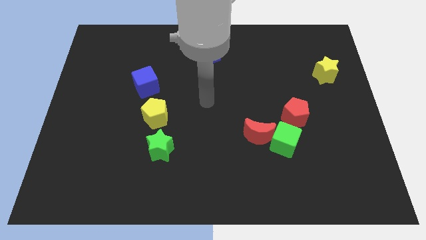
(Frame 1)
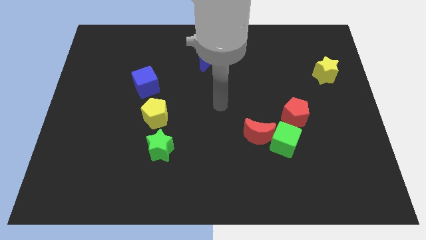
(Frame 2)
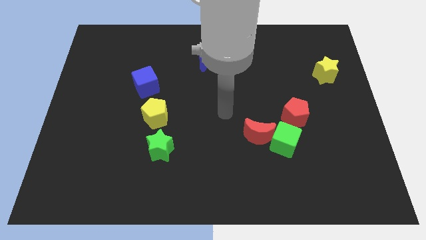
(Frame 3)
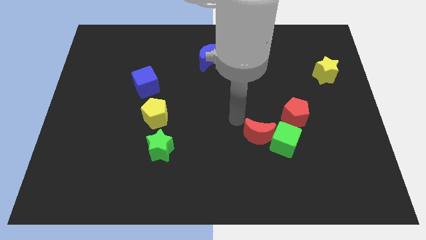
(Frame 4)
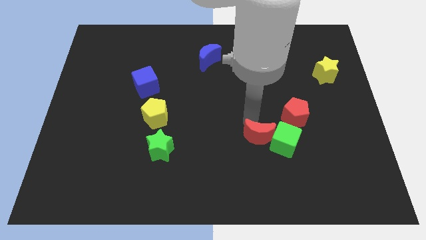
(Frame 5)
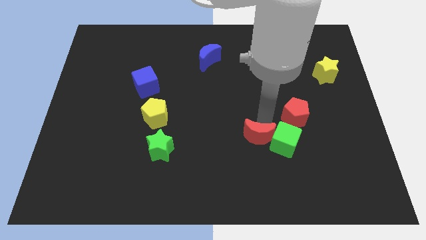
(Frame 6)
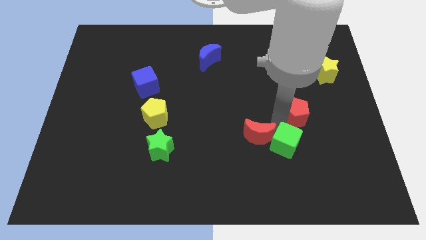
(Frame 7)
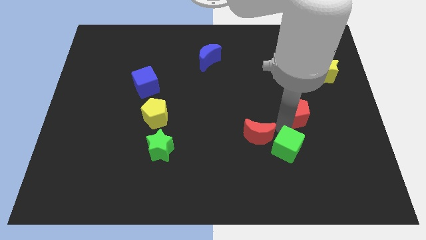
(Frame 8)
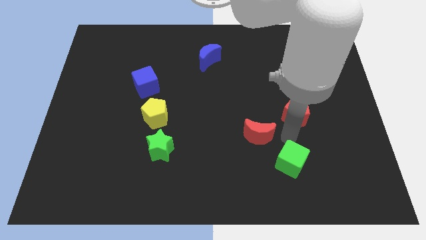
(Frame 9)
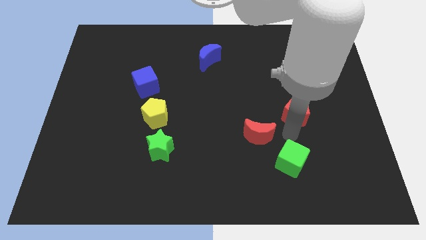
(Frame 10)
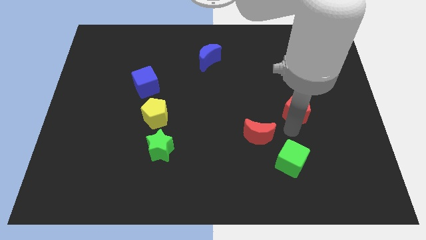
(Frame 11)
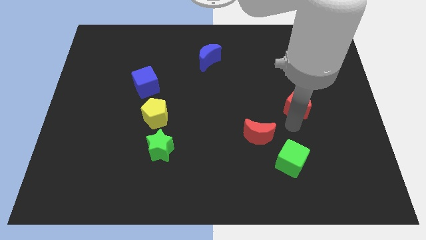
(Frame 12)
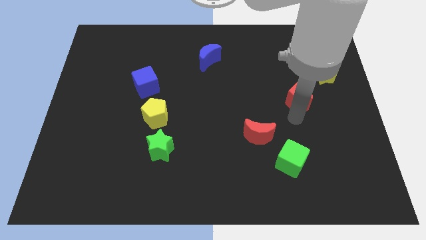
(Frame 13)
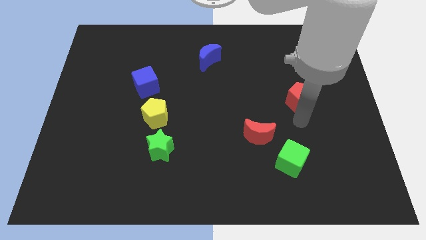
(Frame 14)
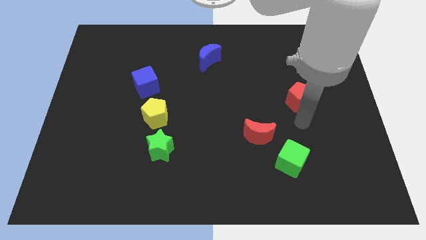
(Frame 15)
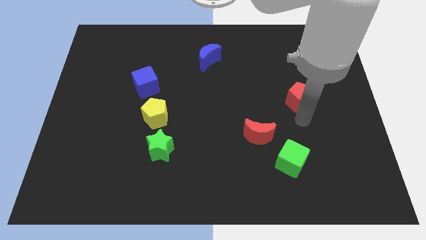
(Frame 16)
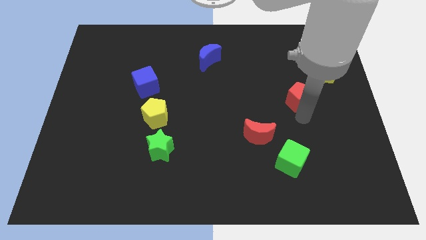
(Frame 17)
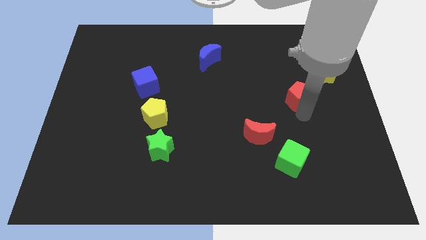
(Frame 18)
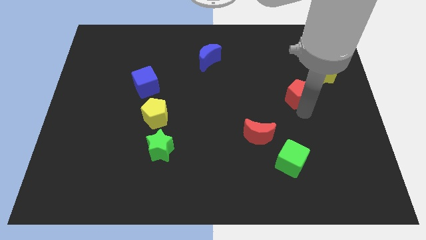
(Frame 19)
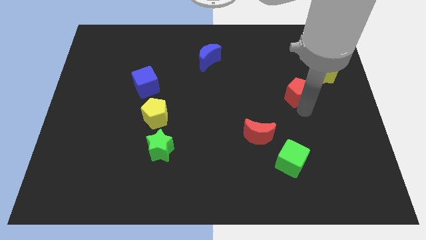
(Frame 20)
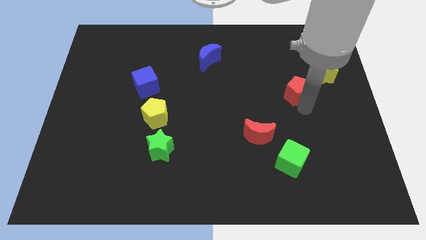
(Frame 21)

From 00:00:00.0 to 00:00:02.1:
push the red pentagon up somewhat

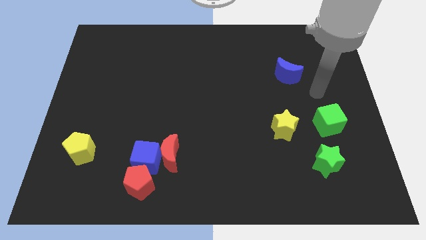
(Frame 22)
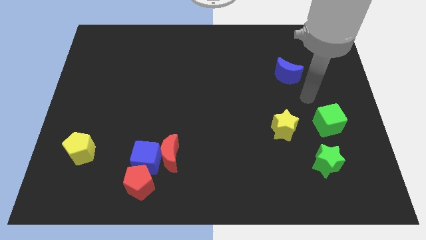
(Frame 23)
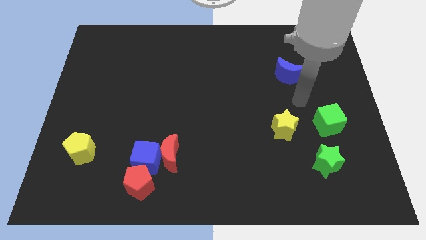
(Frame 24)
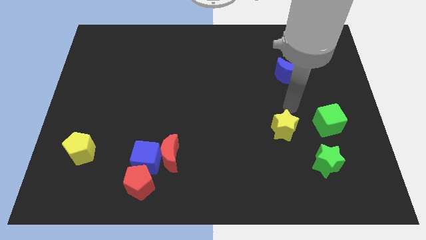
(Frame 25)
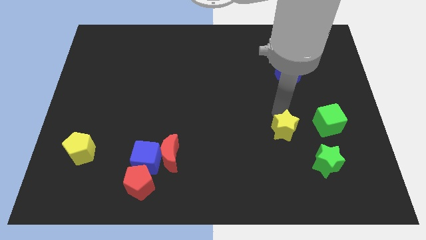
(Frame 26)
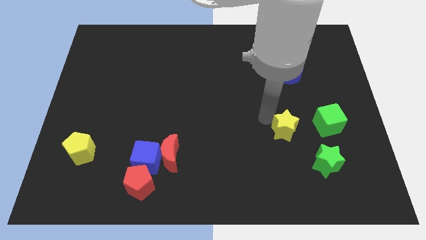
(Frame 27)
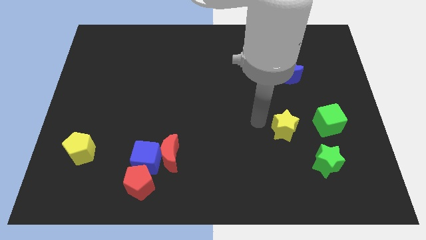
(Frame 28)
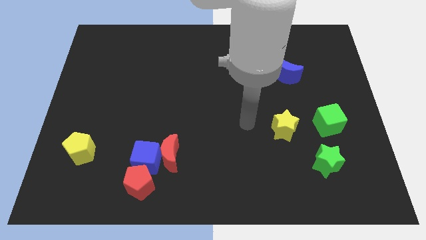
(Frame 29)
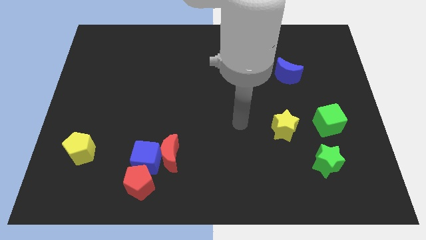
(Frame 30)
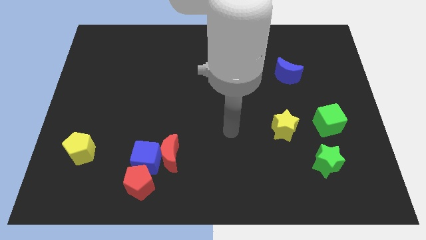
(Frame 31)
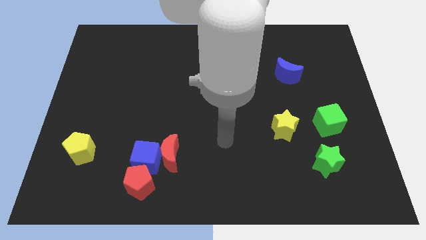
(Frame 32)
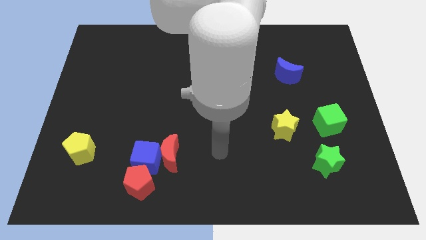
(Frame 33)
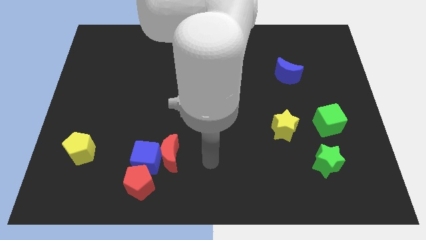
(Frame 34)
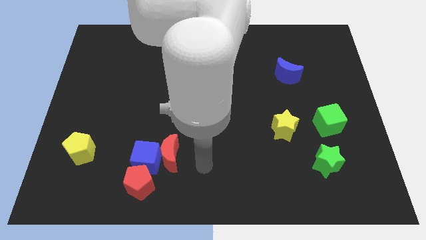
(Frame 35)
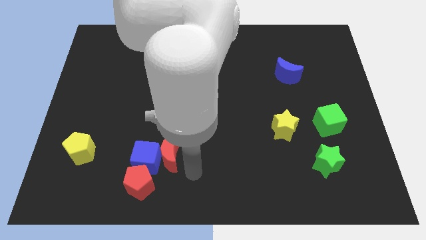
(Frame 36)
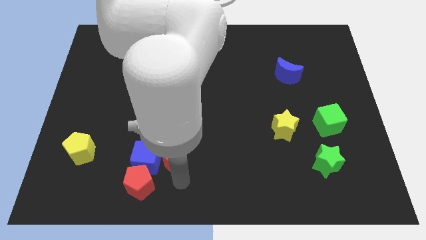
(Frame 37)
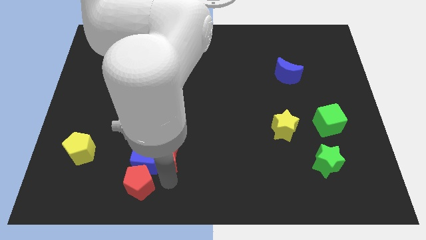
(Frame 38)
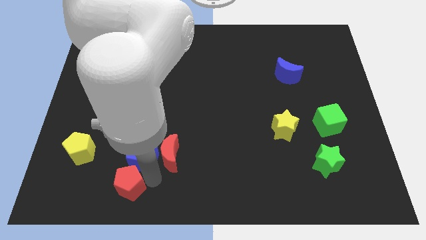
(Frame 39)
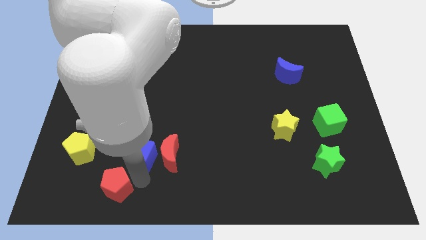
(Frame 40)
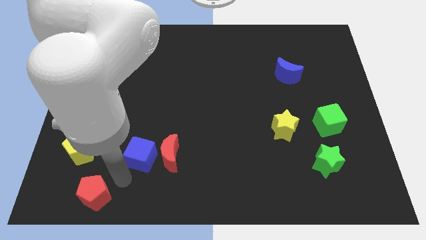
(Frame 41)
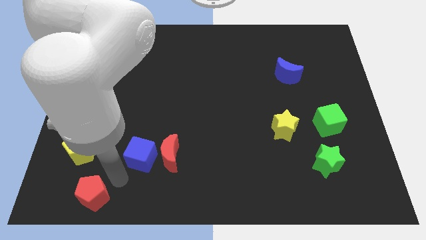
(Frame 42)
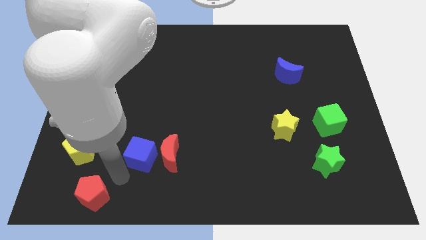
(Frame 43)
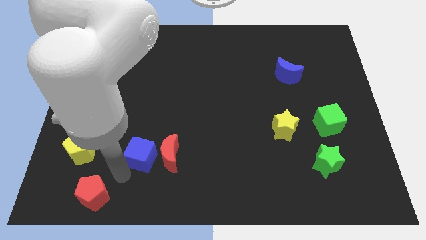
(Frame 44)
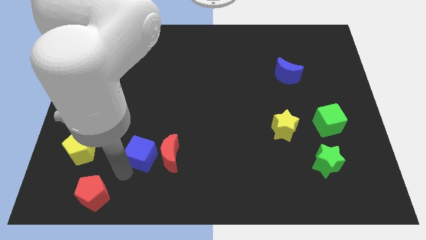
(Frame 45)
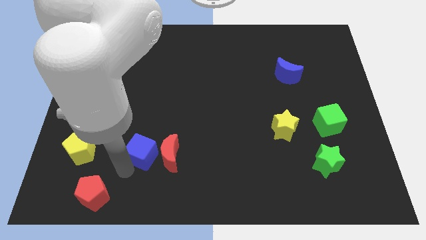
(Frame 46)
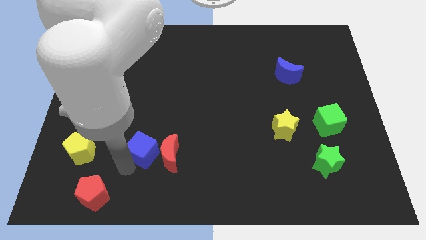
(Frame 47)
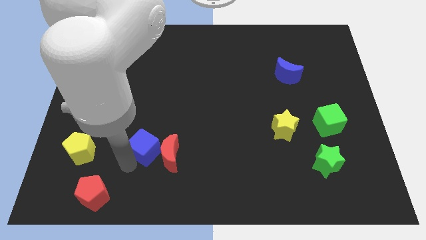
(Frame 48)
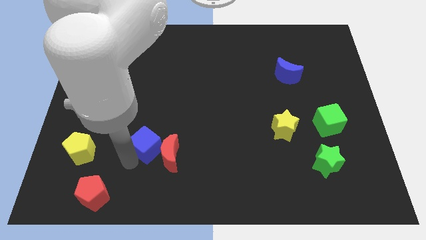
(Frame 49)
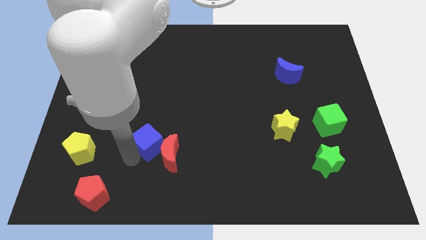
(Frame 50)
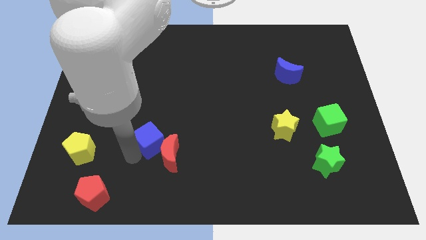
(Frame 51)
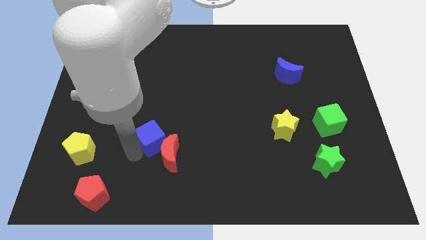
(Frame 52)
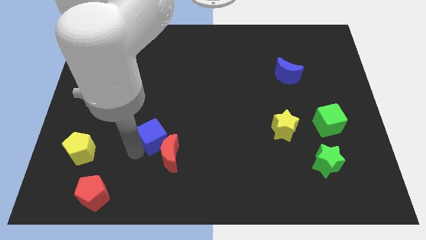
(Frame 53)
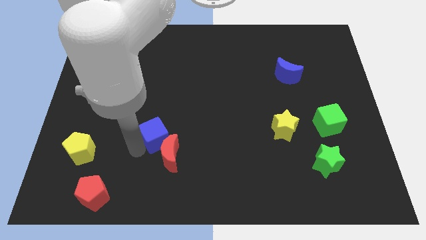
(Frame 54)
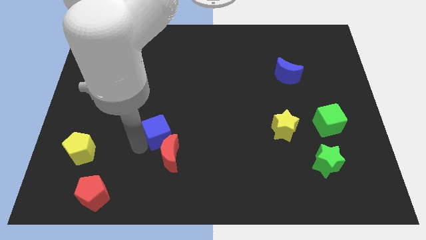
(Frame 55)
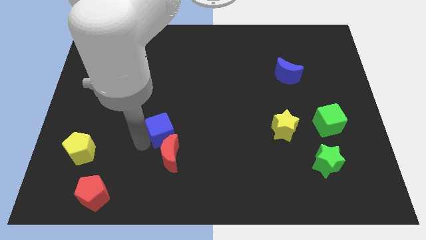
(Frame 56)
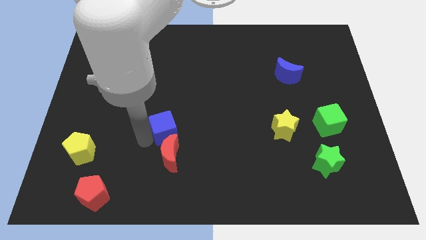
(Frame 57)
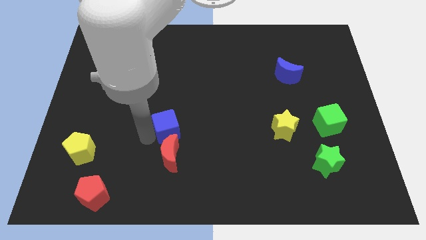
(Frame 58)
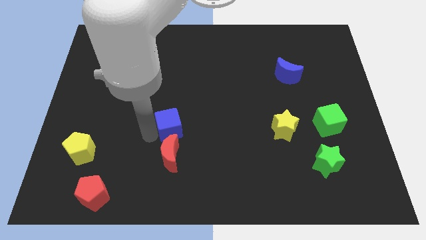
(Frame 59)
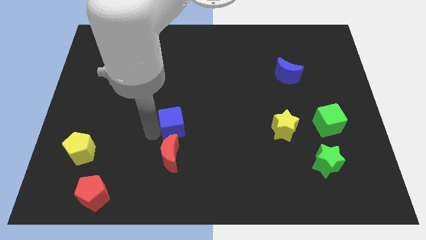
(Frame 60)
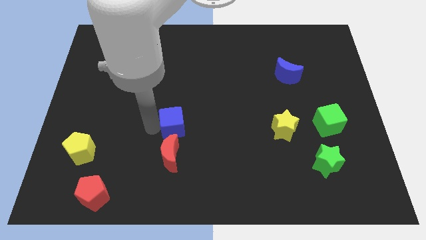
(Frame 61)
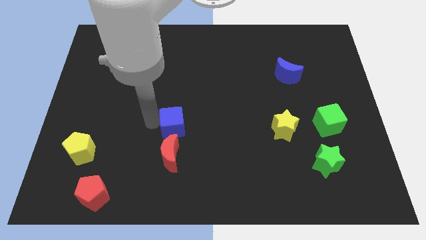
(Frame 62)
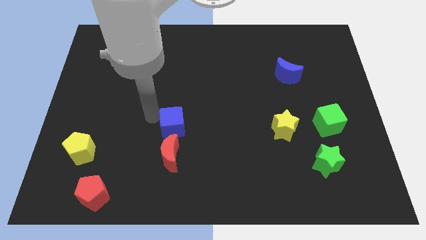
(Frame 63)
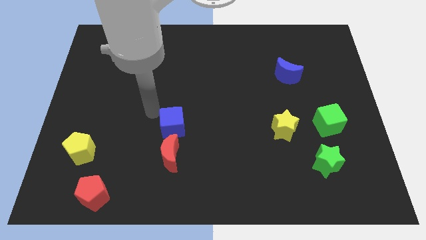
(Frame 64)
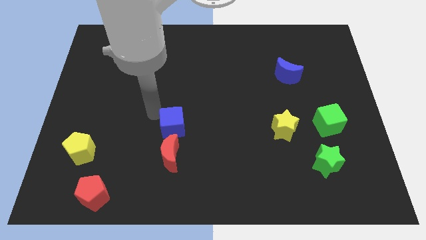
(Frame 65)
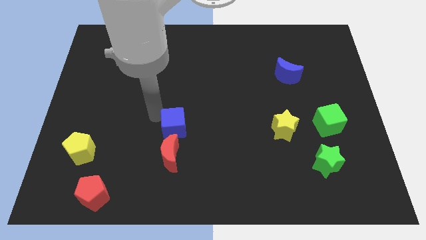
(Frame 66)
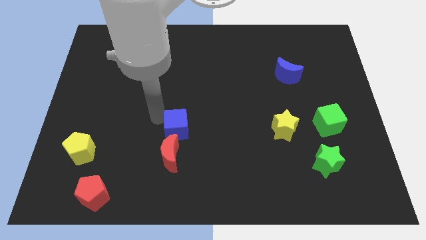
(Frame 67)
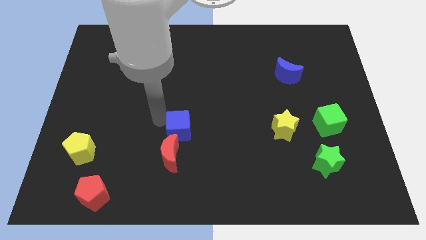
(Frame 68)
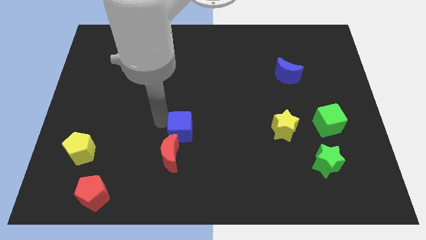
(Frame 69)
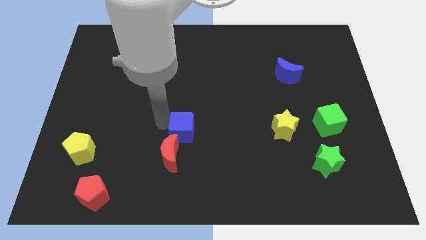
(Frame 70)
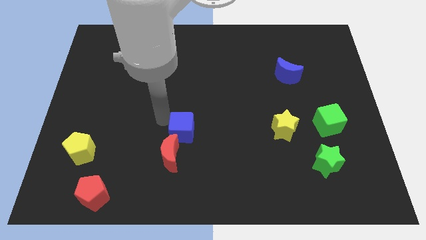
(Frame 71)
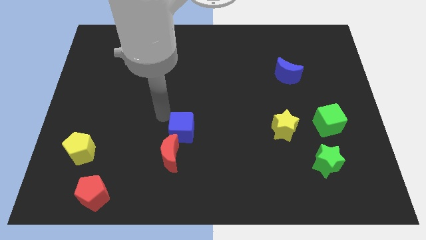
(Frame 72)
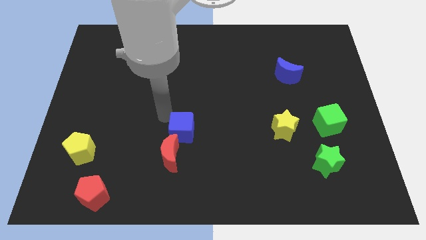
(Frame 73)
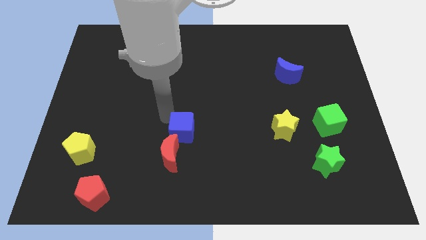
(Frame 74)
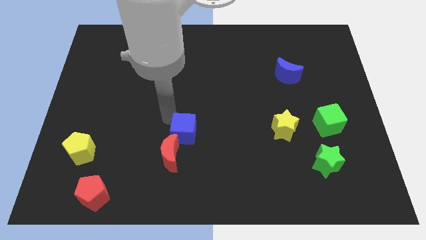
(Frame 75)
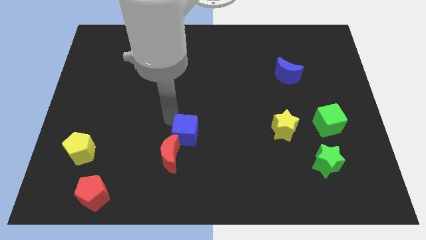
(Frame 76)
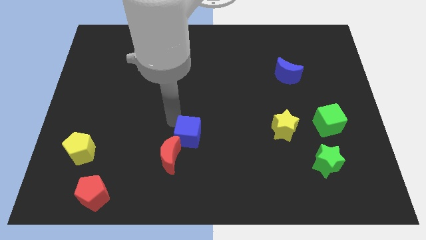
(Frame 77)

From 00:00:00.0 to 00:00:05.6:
push the blue cube a bit to the right
